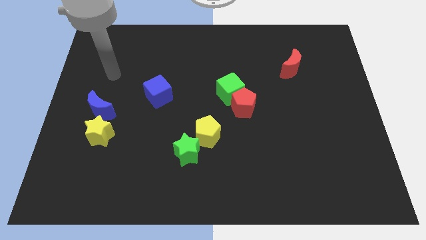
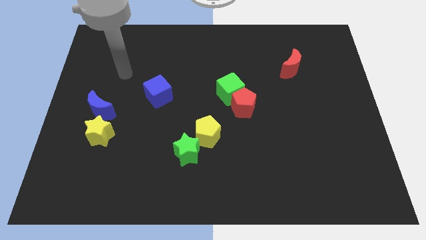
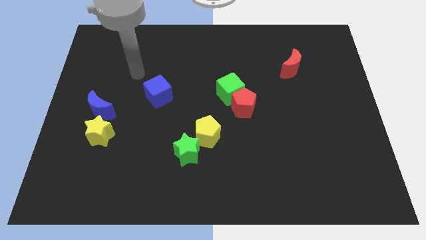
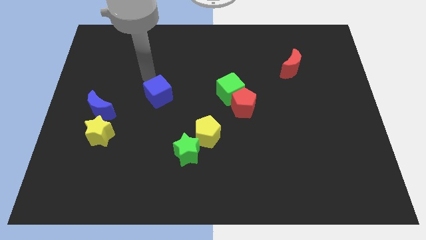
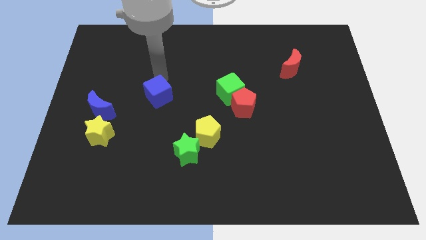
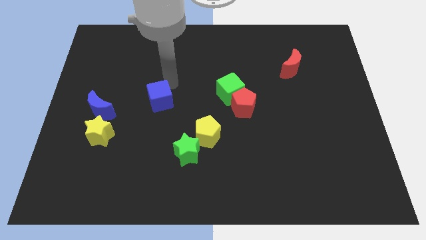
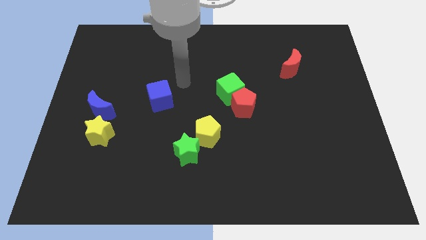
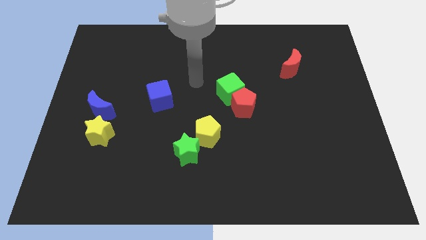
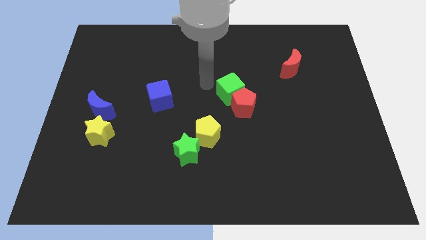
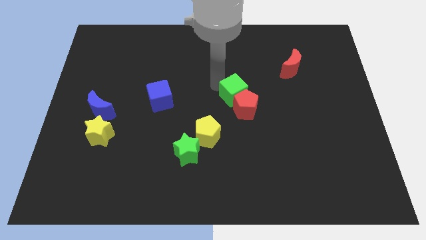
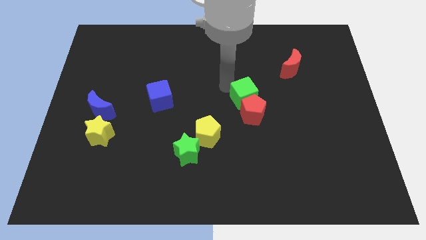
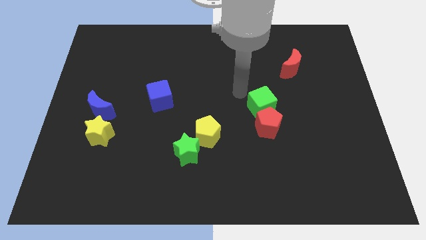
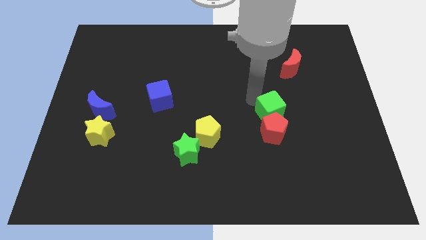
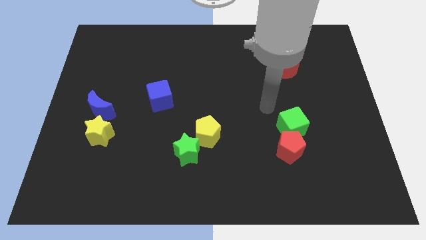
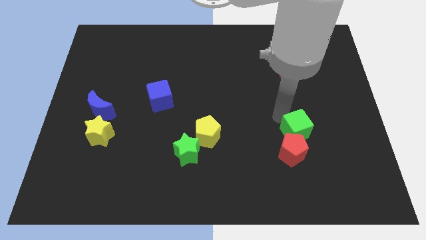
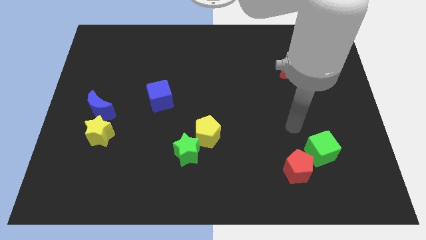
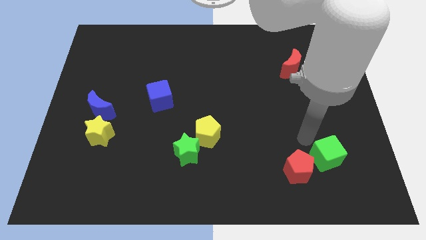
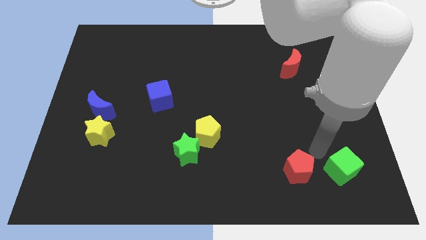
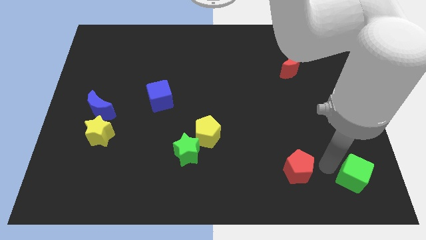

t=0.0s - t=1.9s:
separate the red pentagon from the green cube

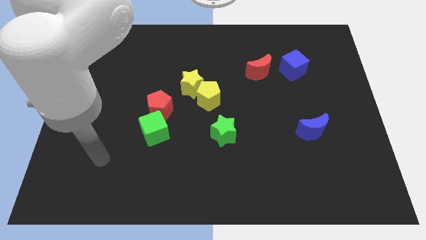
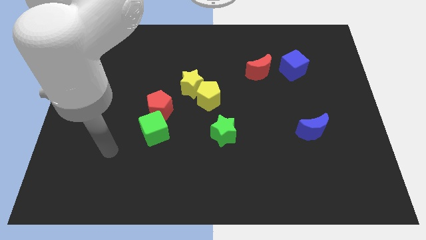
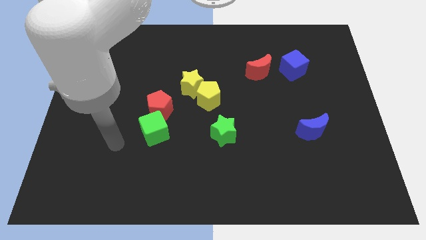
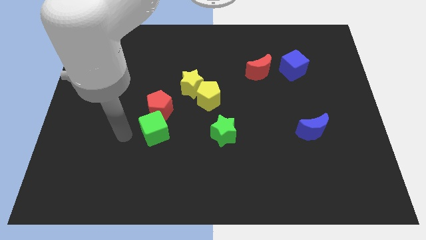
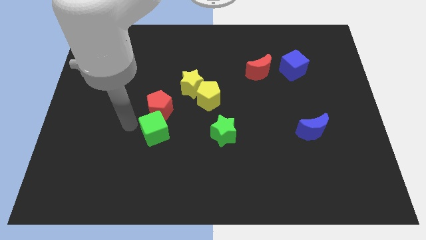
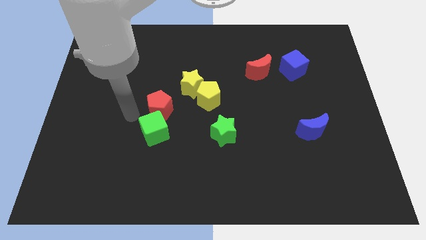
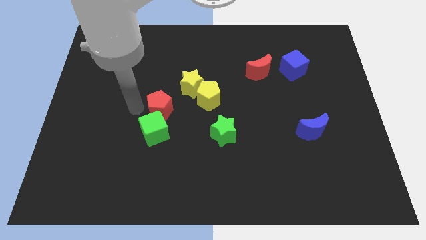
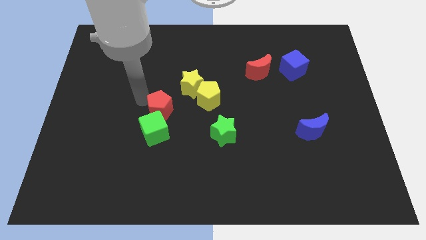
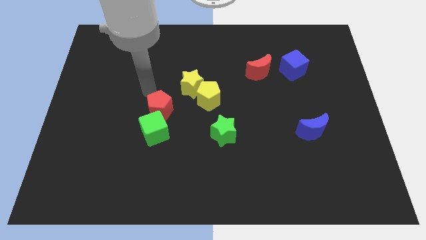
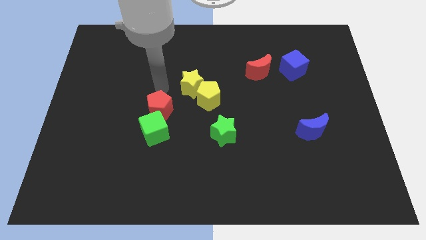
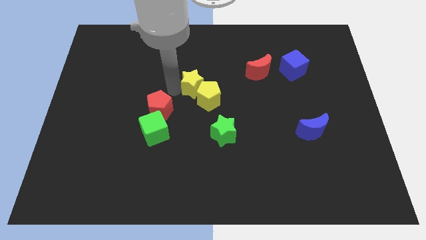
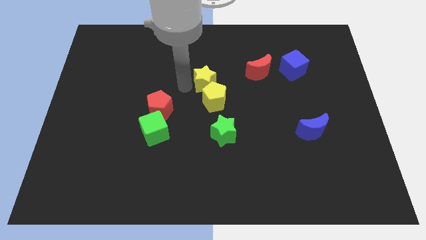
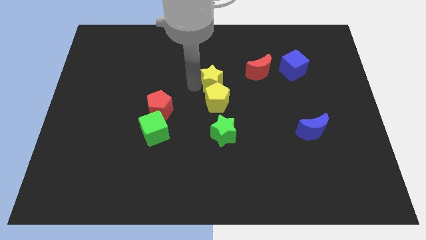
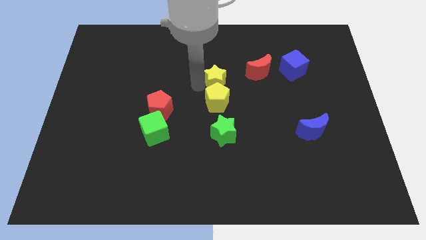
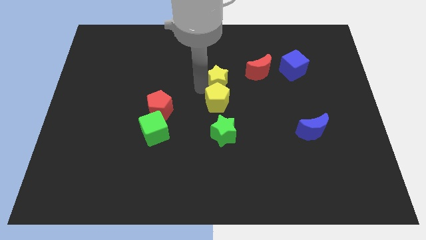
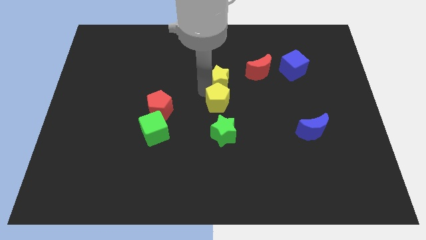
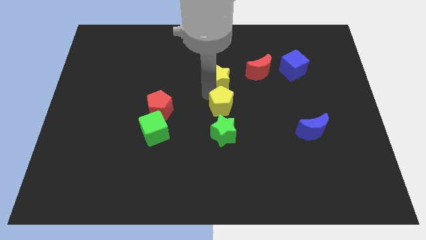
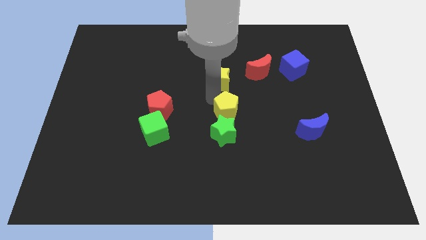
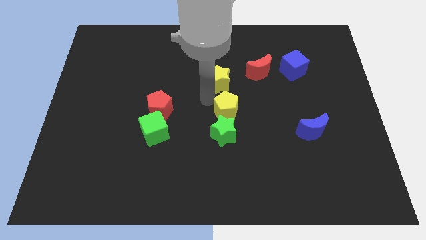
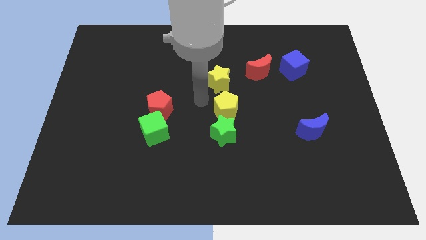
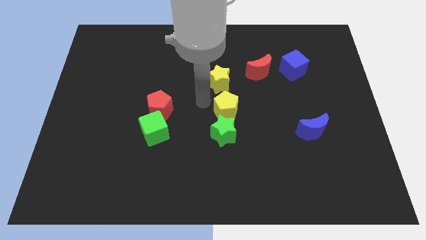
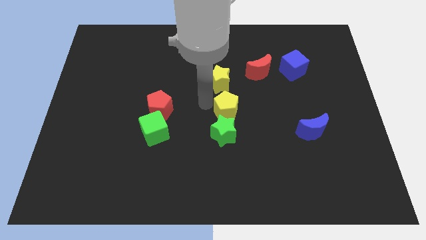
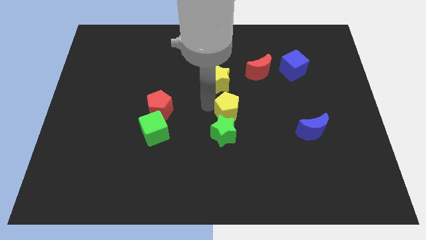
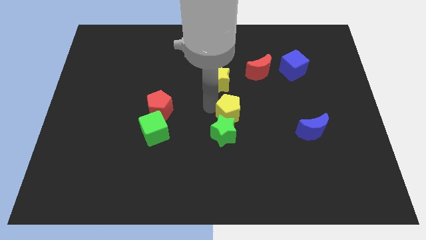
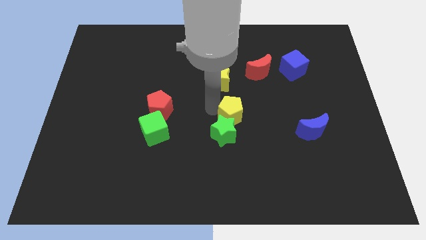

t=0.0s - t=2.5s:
separate the yellow pentagon from the yellow star

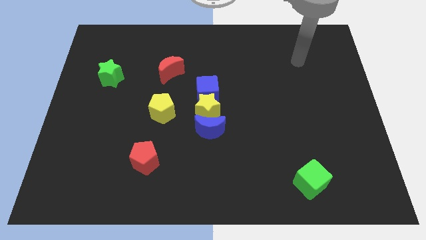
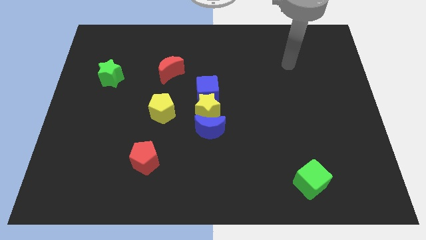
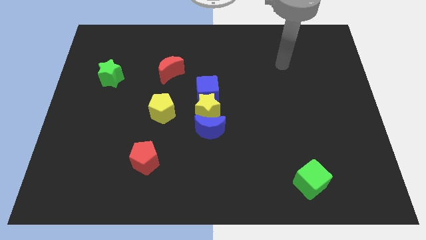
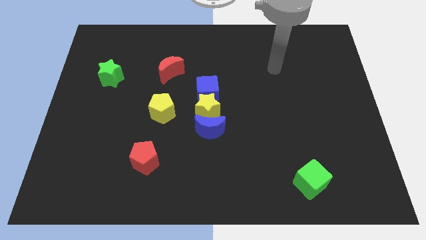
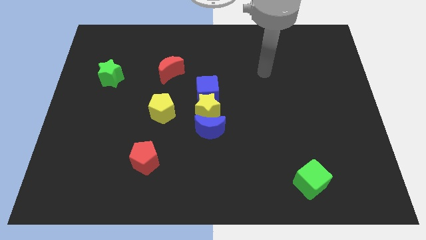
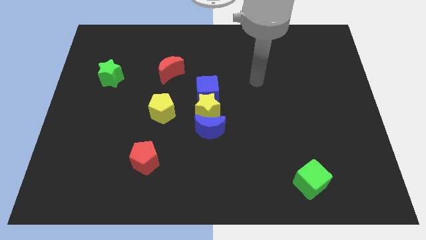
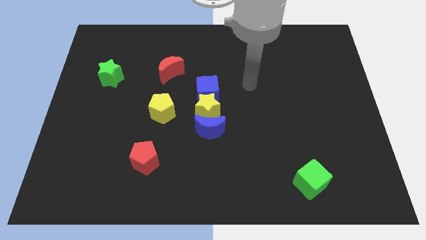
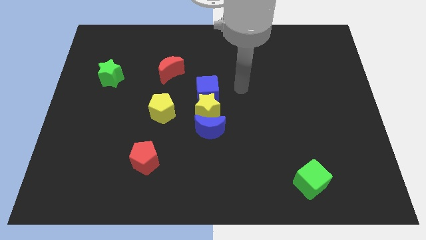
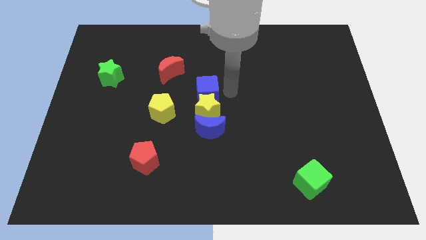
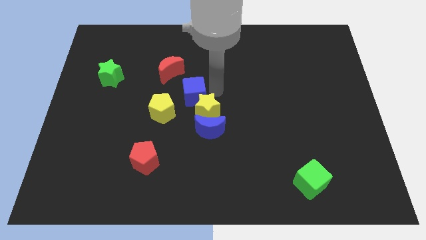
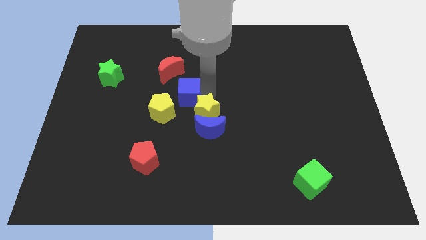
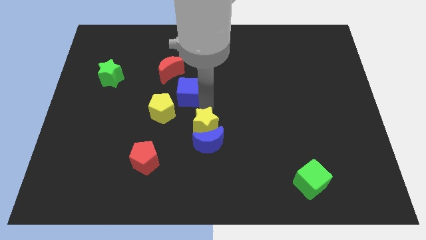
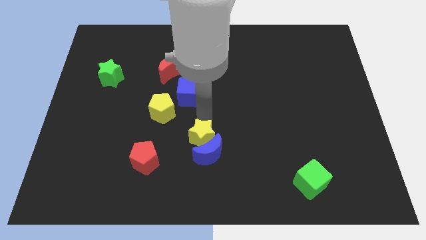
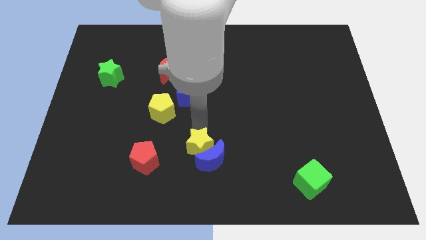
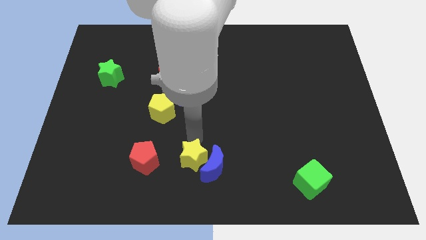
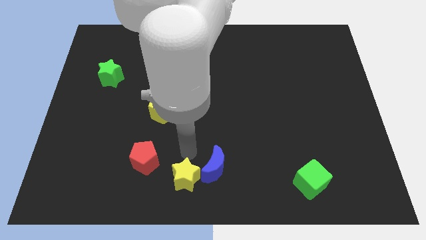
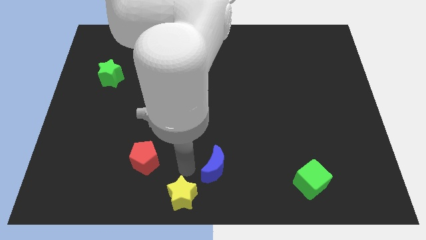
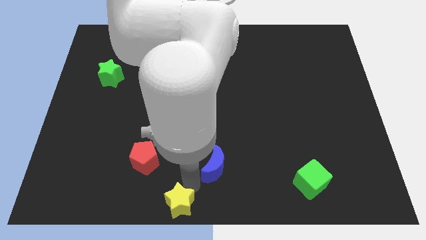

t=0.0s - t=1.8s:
pull the blue moon apart from the yellow star

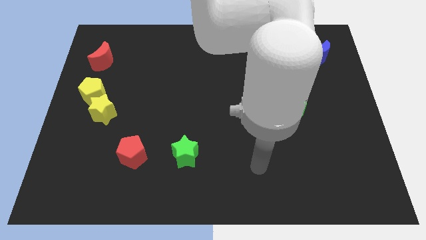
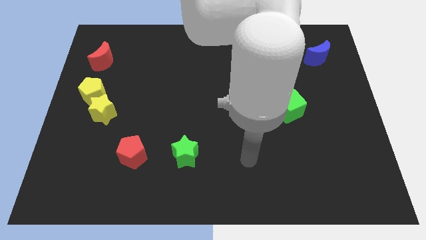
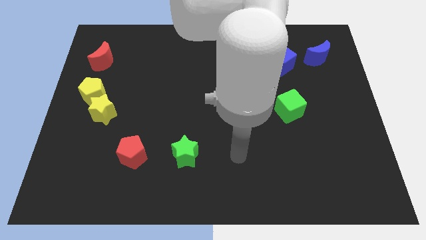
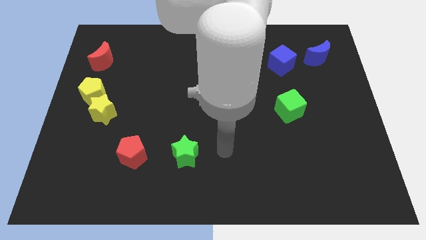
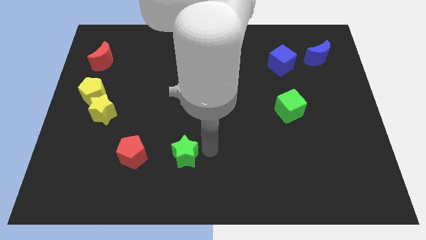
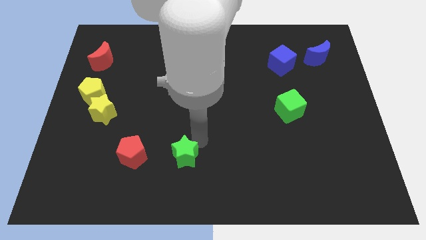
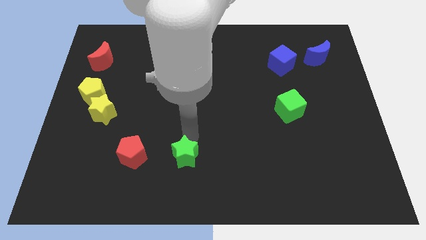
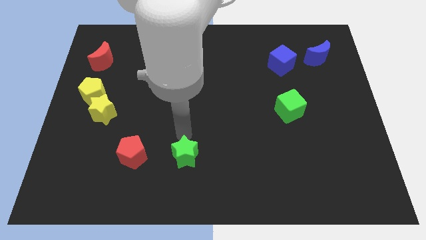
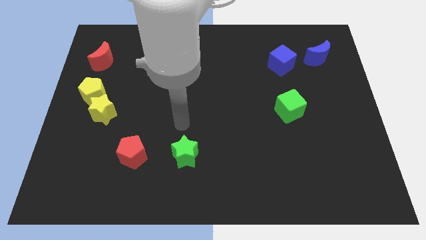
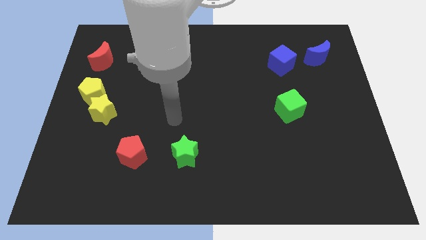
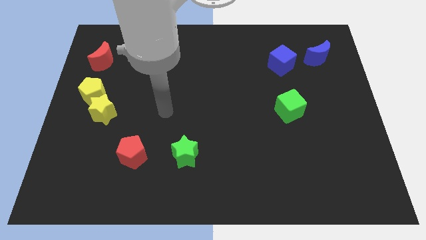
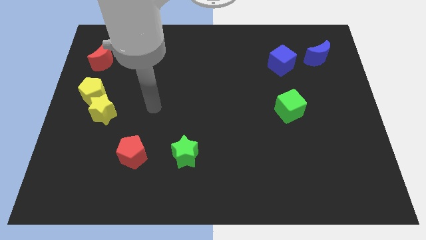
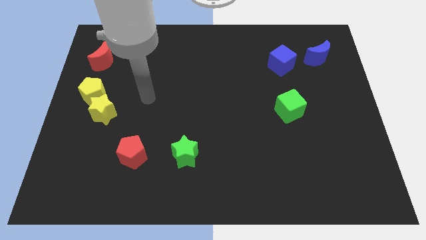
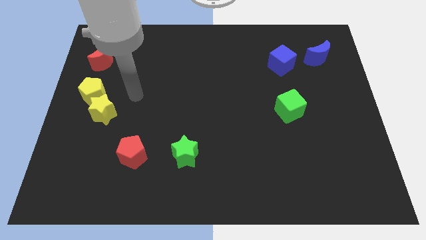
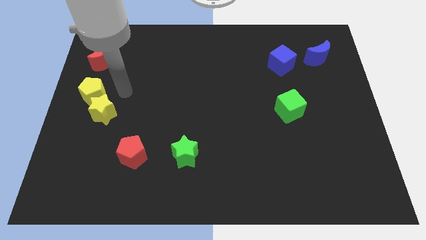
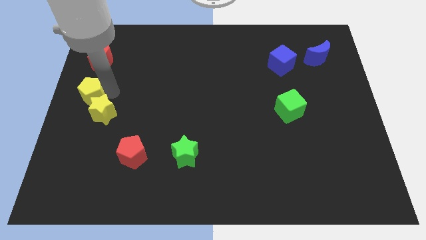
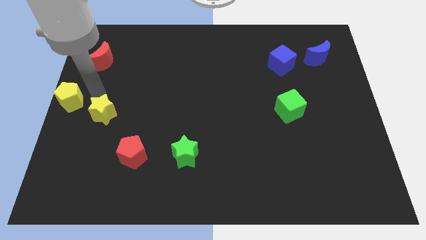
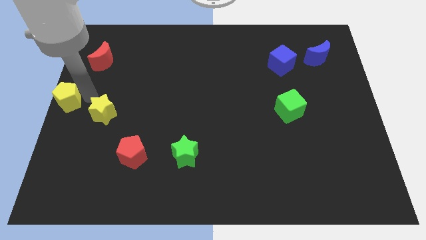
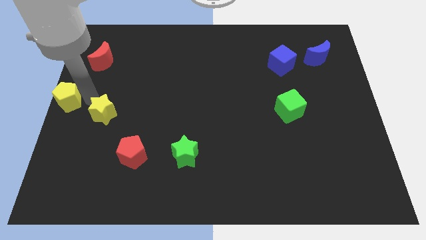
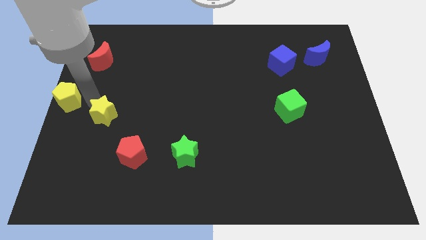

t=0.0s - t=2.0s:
pull the yellow star apart from the yellow pentagon

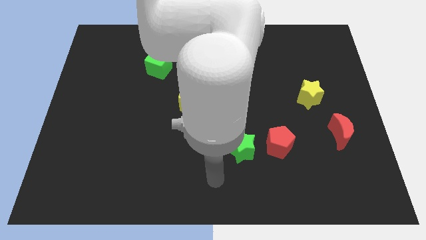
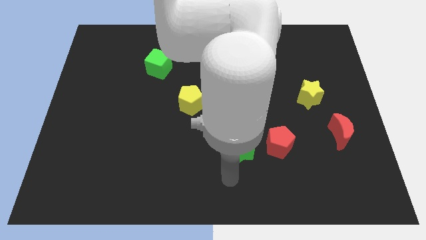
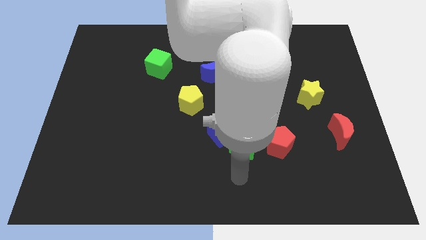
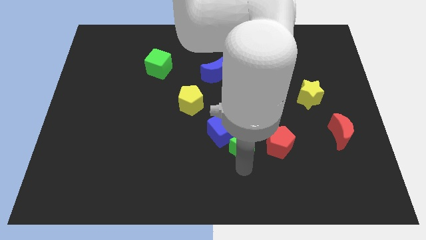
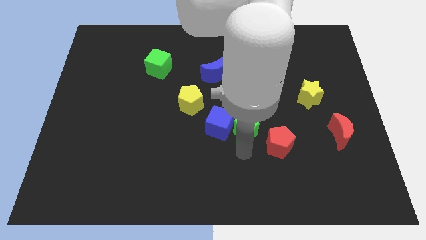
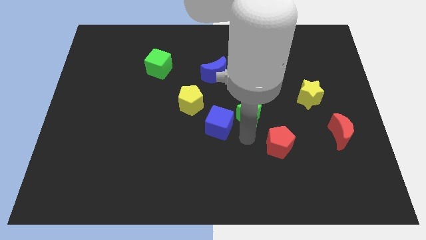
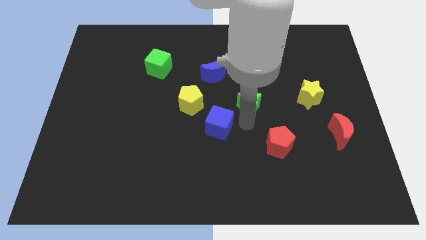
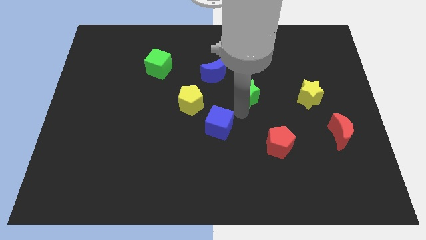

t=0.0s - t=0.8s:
move the blue cube away from the green star

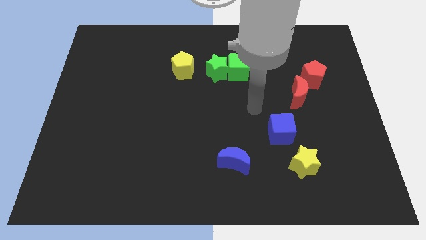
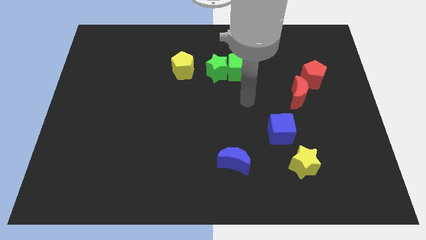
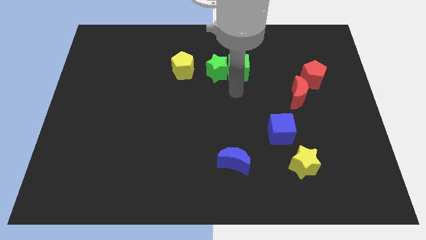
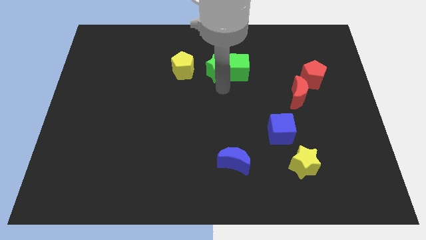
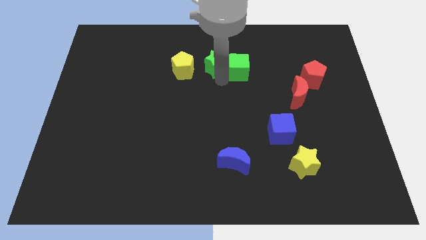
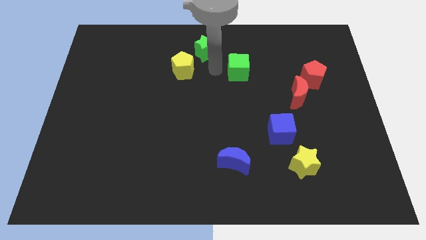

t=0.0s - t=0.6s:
separate the green cube from the green star
